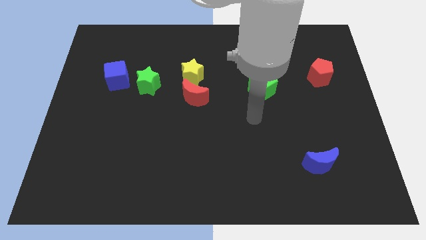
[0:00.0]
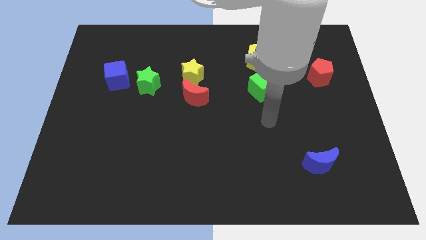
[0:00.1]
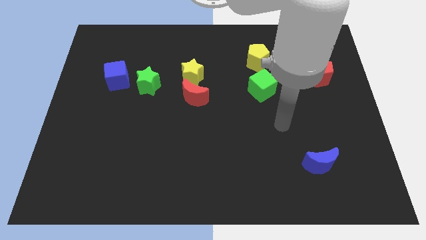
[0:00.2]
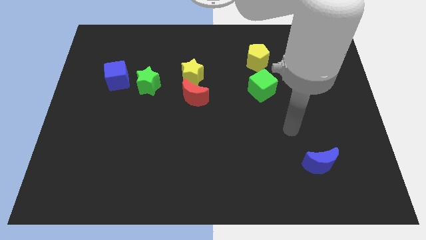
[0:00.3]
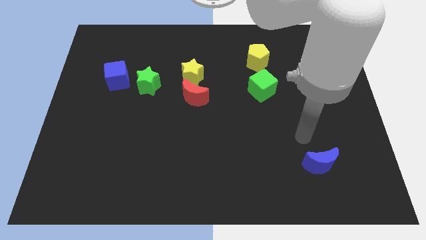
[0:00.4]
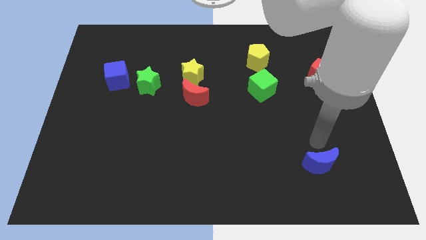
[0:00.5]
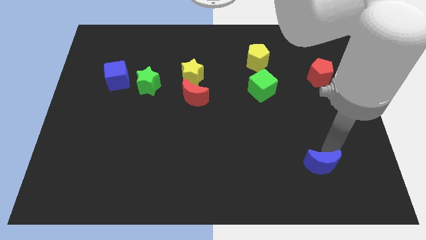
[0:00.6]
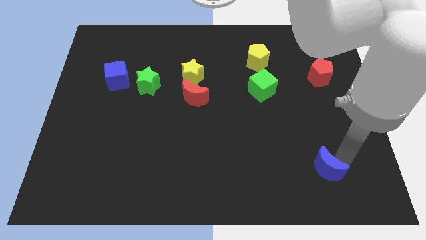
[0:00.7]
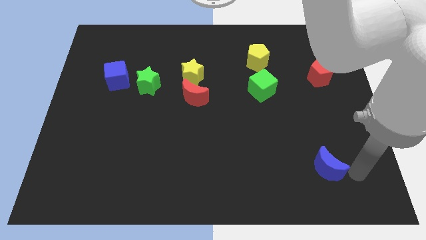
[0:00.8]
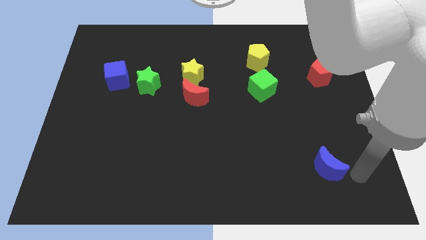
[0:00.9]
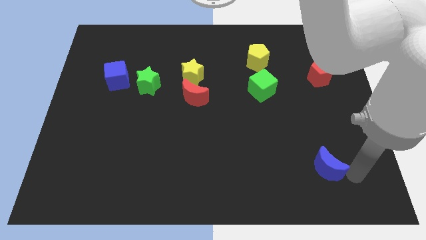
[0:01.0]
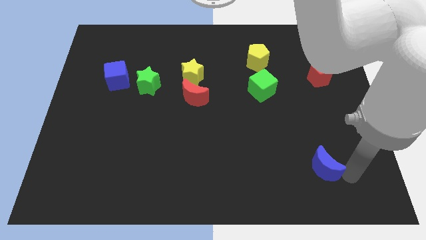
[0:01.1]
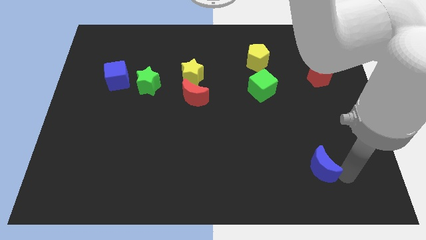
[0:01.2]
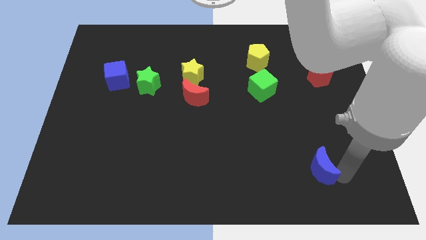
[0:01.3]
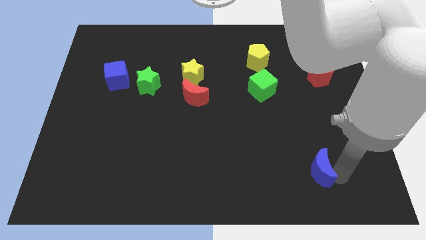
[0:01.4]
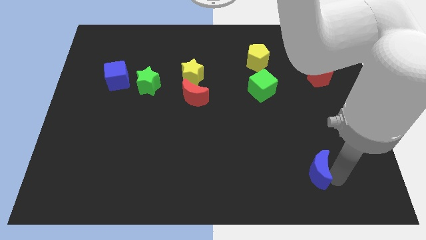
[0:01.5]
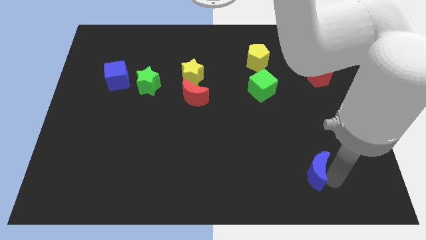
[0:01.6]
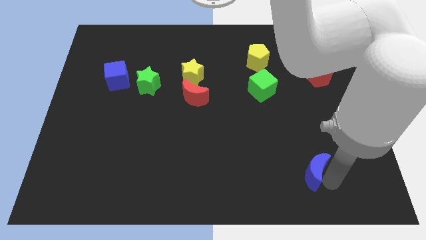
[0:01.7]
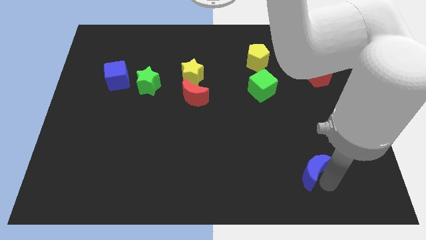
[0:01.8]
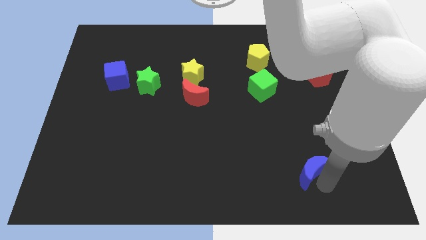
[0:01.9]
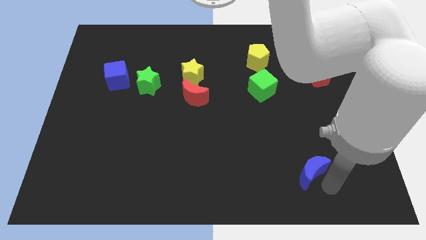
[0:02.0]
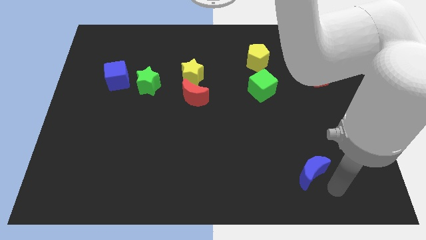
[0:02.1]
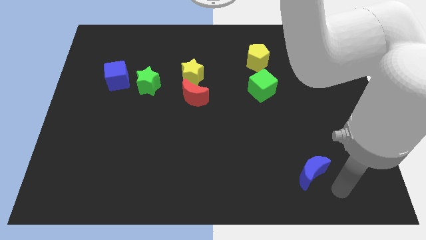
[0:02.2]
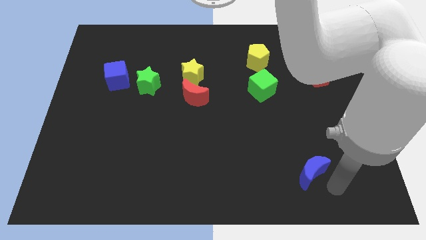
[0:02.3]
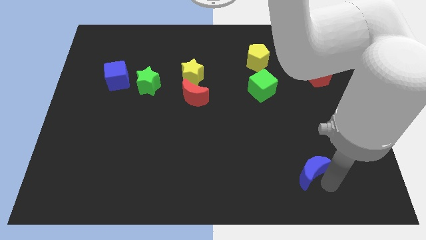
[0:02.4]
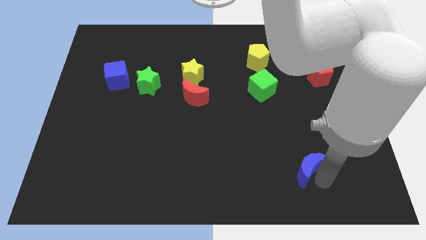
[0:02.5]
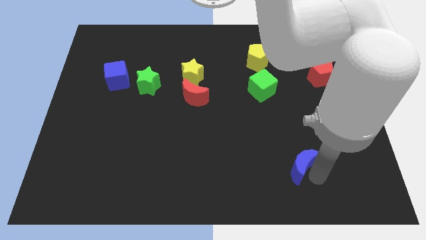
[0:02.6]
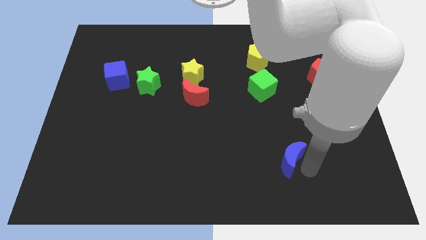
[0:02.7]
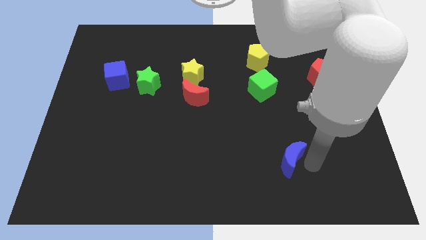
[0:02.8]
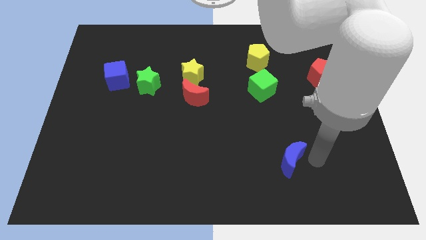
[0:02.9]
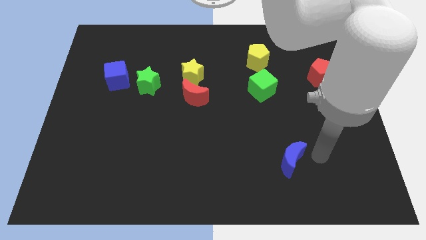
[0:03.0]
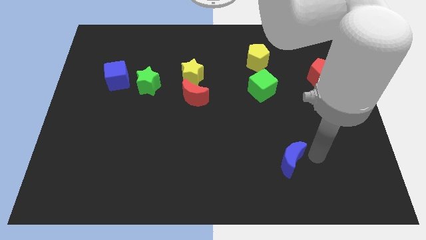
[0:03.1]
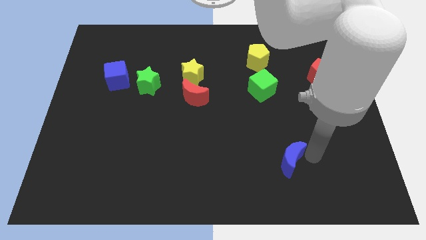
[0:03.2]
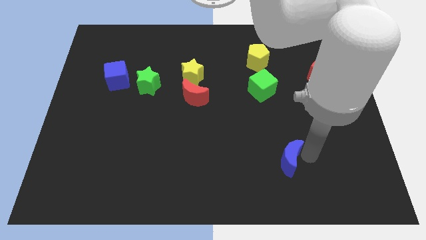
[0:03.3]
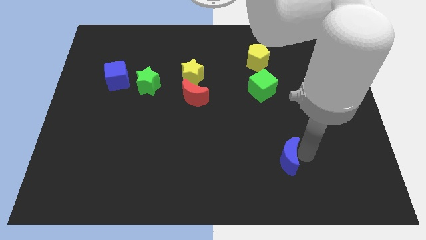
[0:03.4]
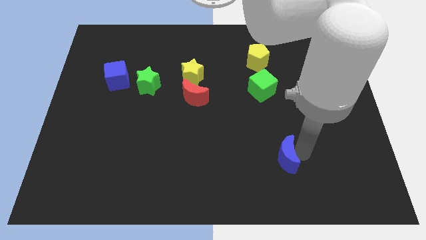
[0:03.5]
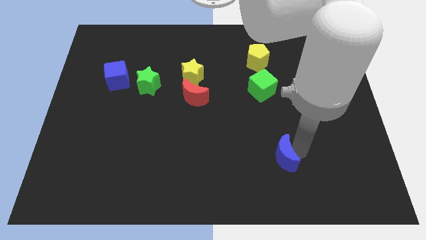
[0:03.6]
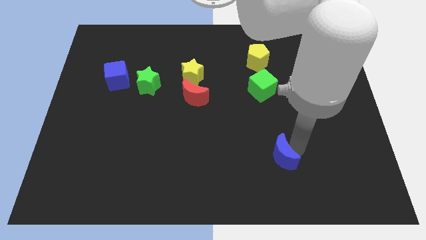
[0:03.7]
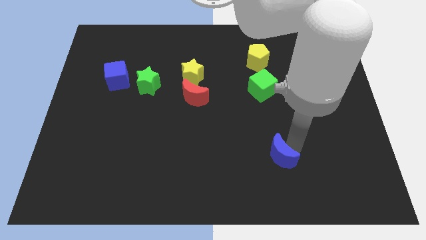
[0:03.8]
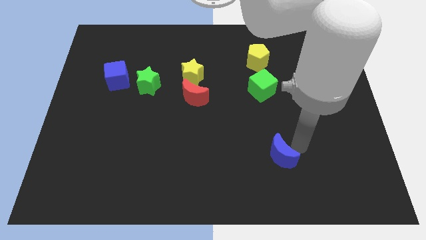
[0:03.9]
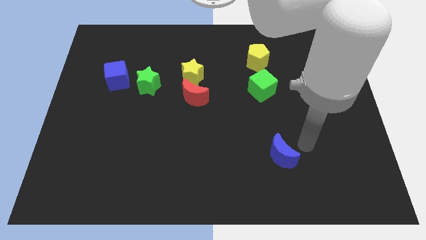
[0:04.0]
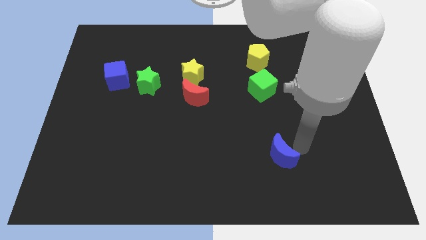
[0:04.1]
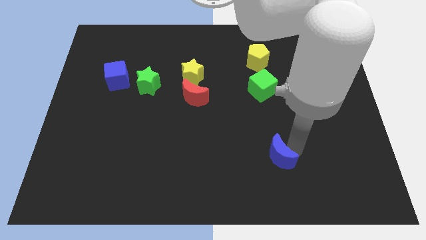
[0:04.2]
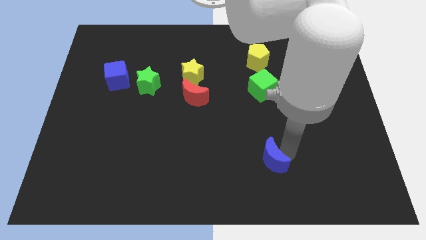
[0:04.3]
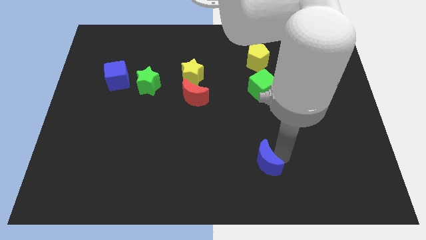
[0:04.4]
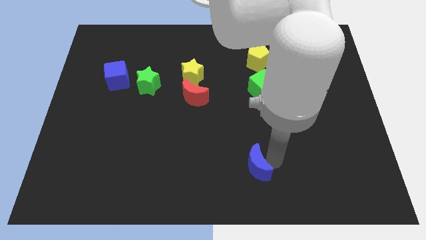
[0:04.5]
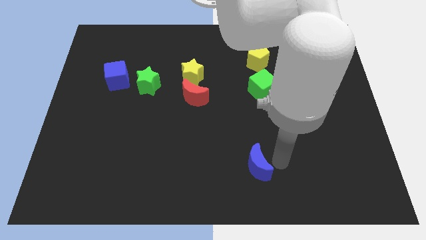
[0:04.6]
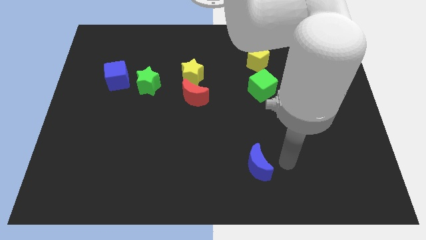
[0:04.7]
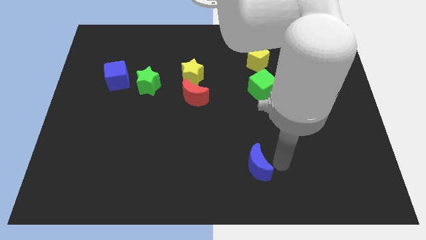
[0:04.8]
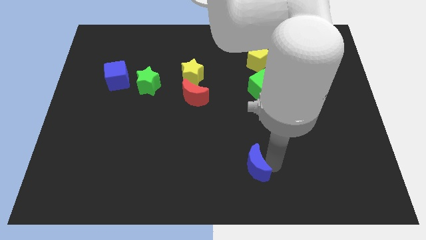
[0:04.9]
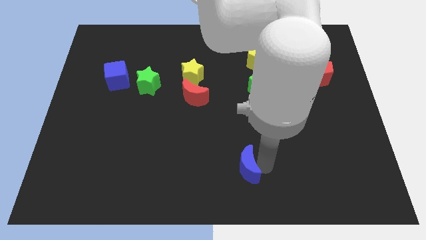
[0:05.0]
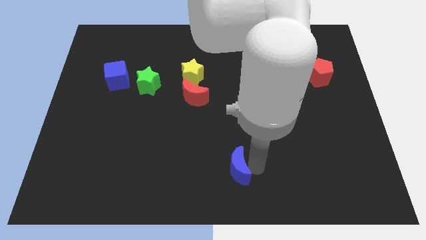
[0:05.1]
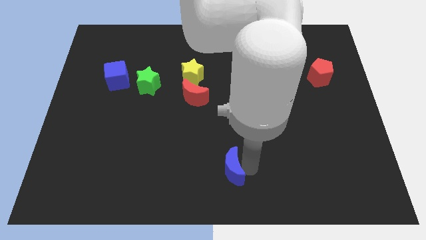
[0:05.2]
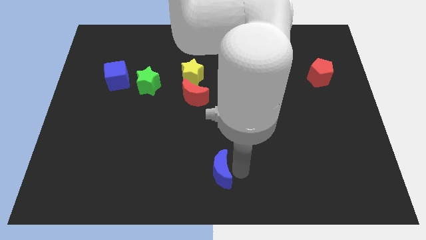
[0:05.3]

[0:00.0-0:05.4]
push the blue moon left

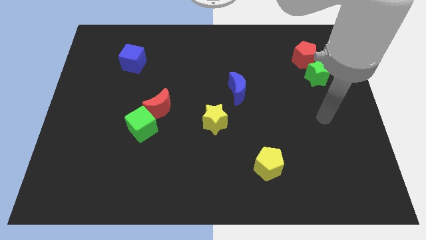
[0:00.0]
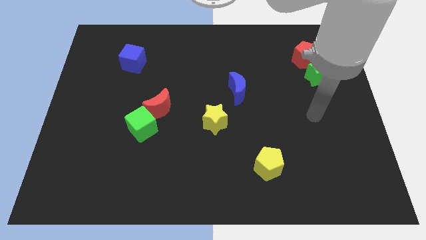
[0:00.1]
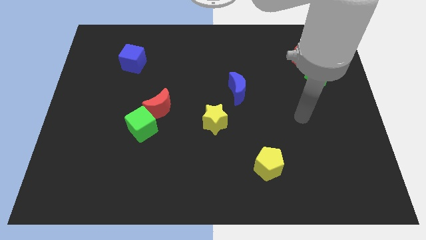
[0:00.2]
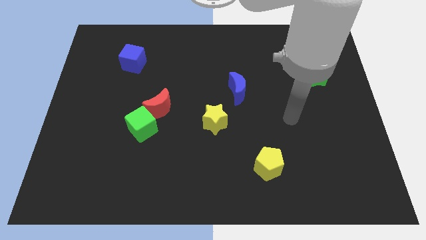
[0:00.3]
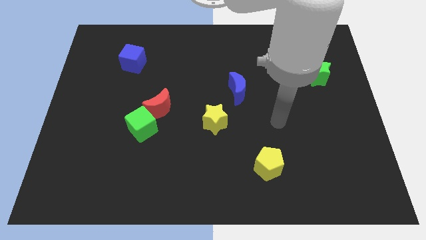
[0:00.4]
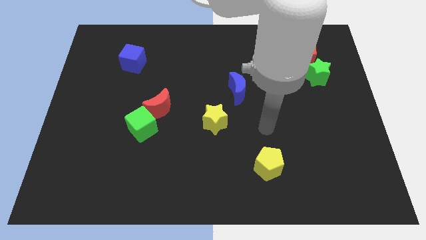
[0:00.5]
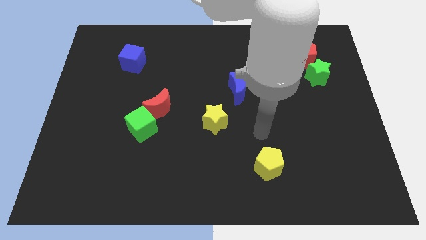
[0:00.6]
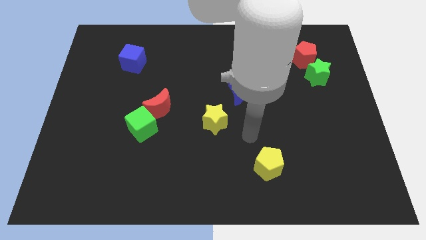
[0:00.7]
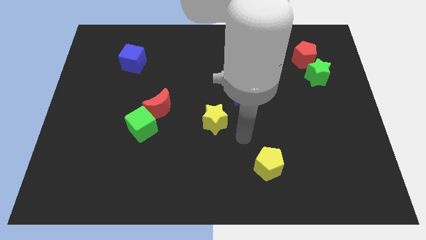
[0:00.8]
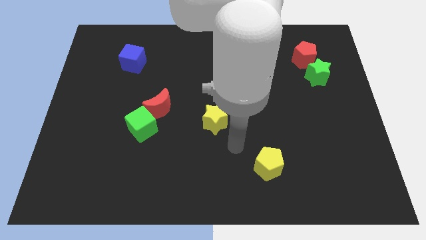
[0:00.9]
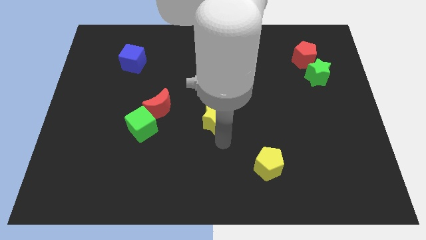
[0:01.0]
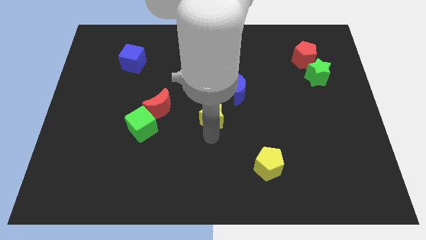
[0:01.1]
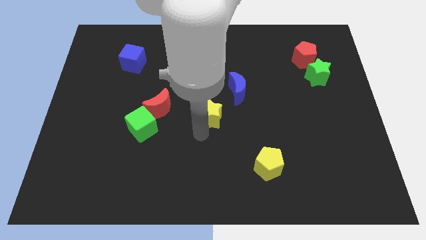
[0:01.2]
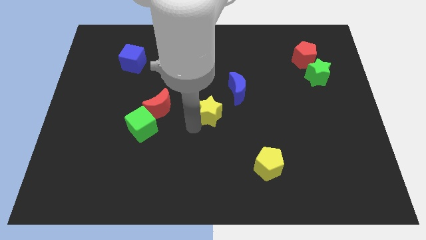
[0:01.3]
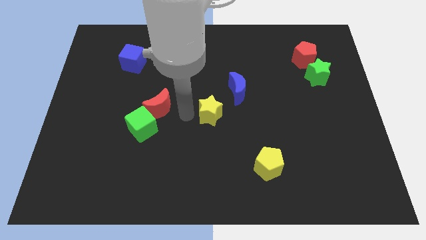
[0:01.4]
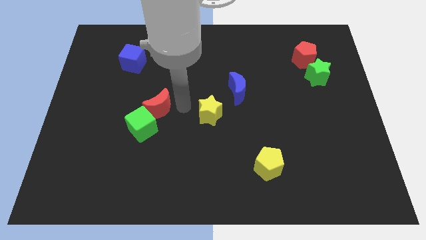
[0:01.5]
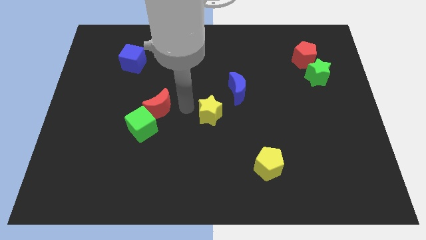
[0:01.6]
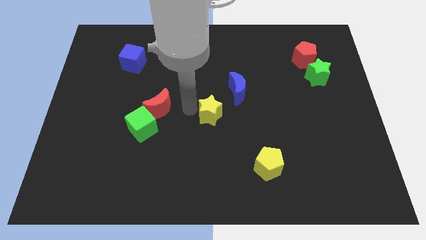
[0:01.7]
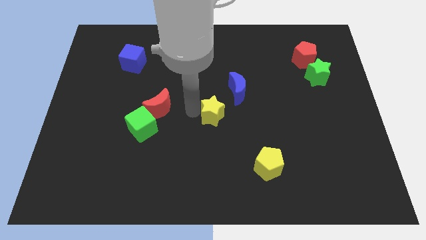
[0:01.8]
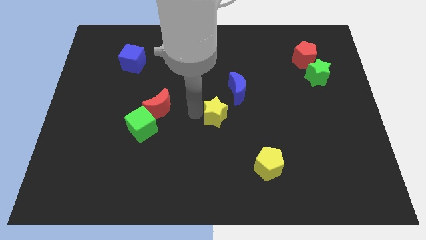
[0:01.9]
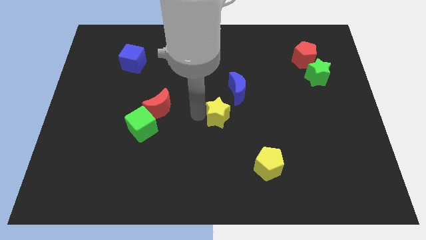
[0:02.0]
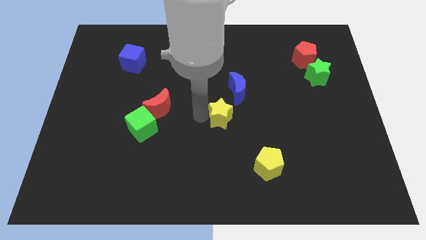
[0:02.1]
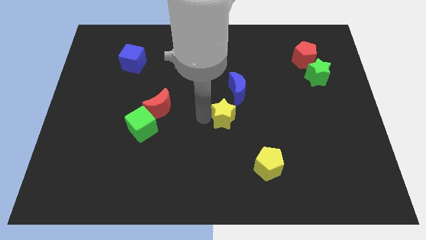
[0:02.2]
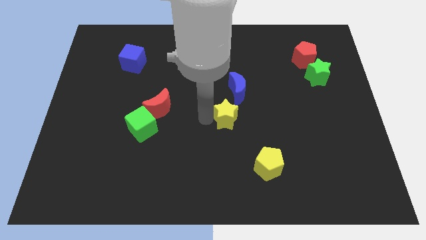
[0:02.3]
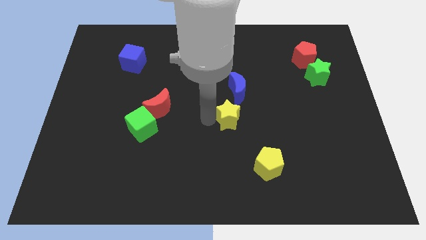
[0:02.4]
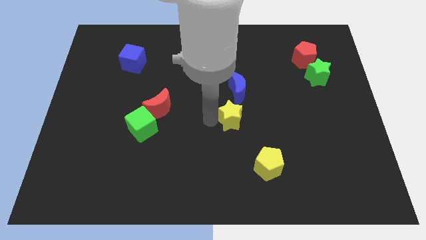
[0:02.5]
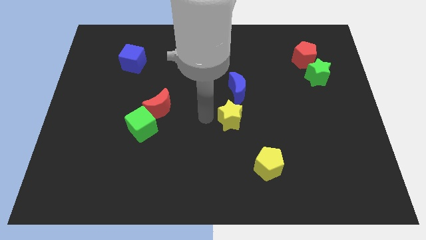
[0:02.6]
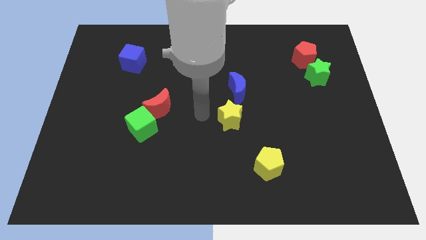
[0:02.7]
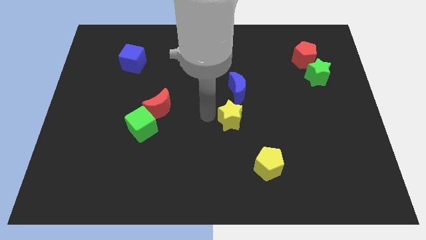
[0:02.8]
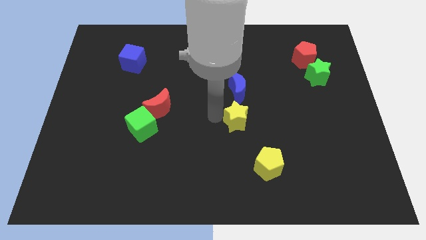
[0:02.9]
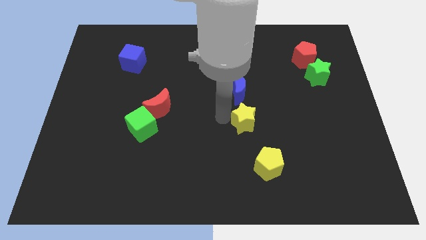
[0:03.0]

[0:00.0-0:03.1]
slide the yellow star to the right somewhat
